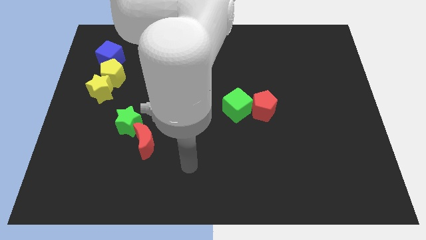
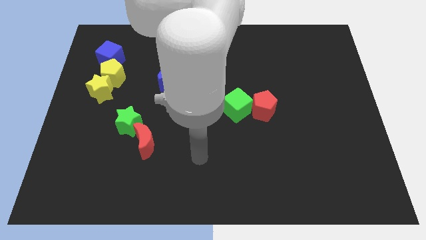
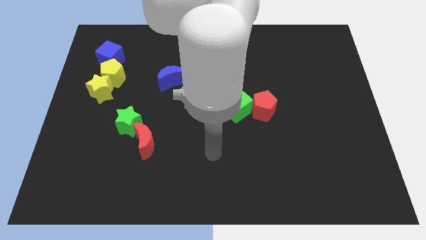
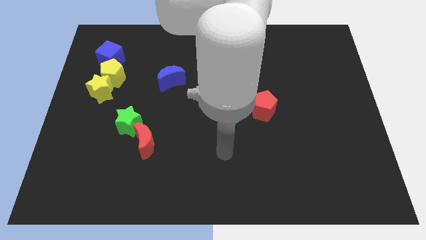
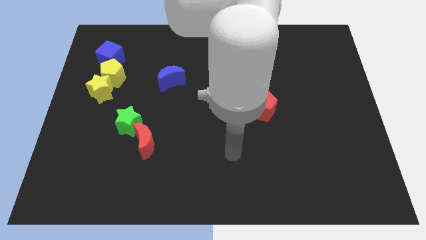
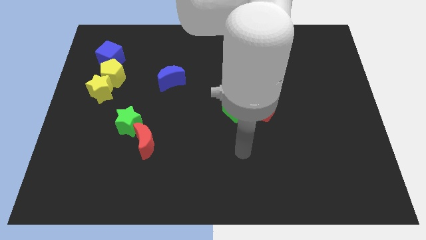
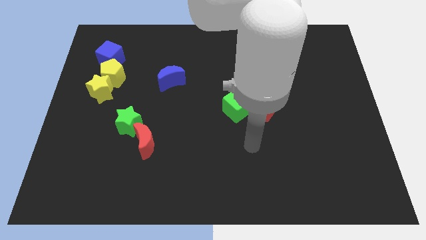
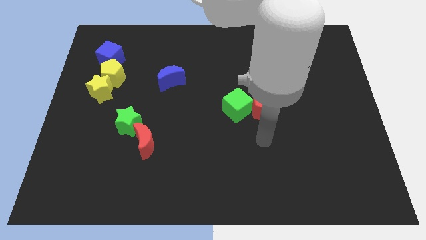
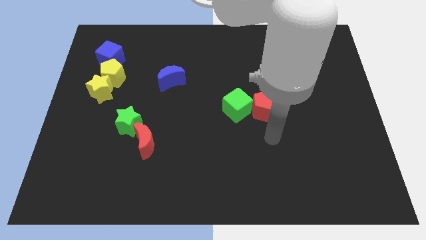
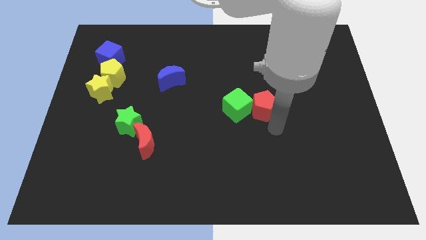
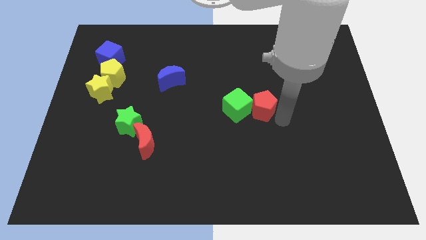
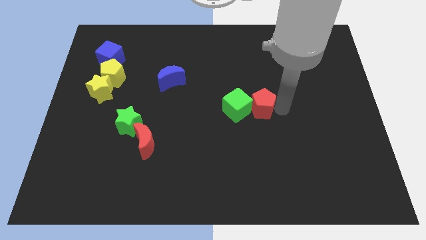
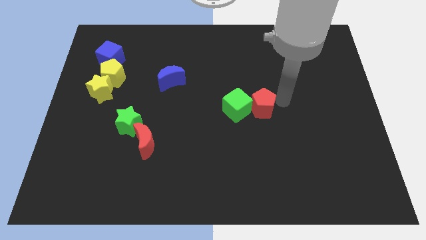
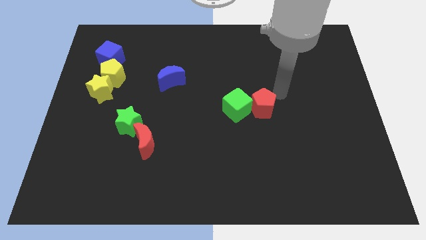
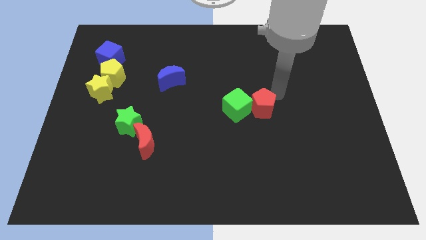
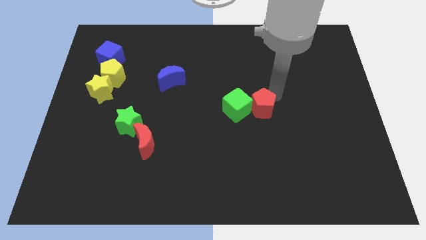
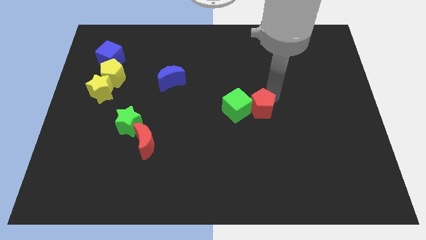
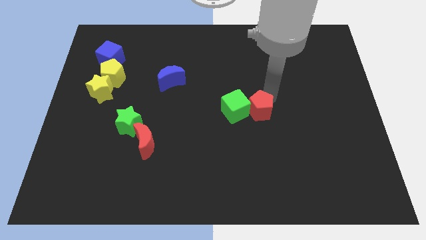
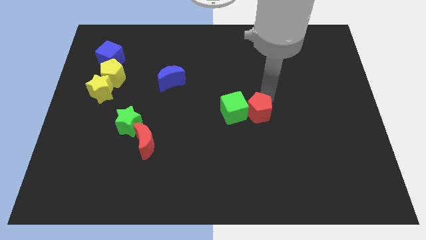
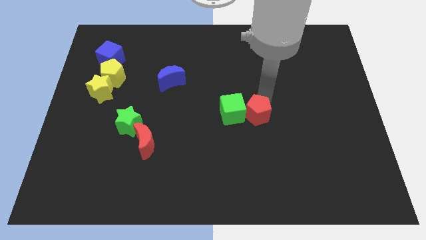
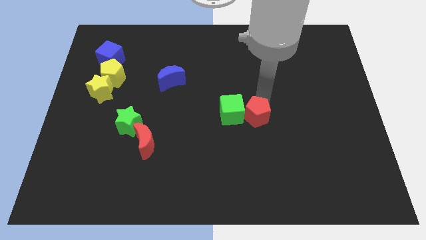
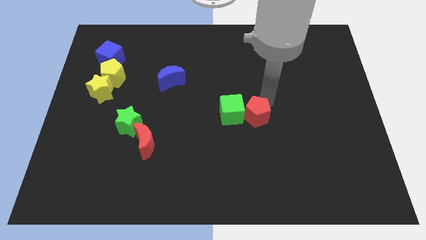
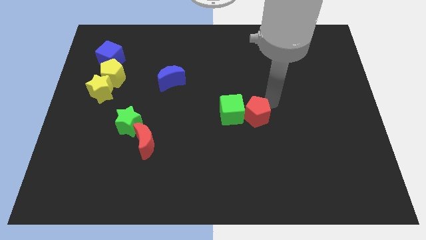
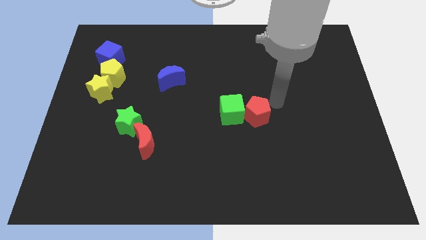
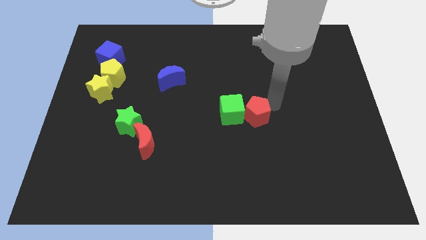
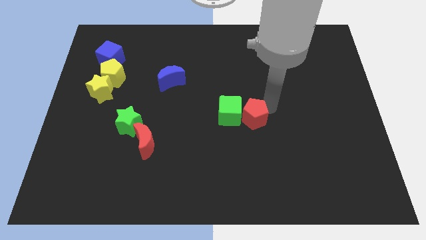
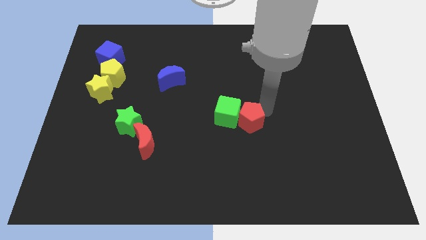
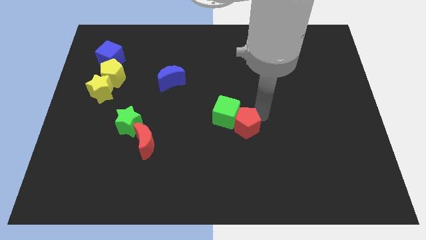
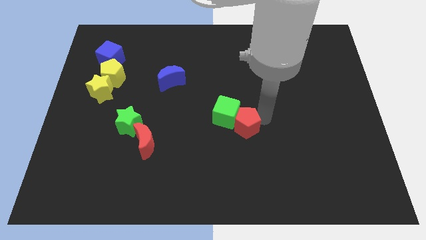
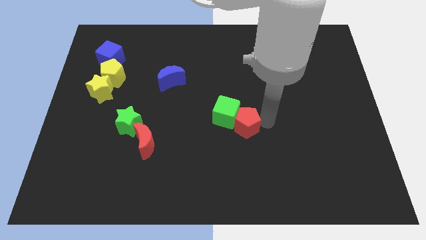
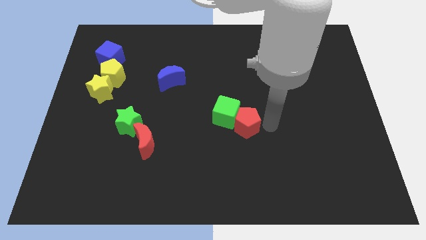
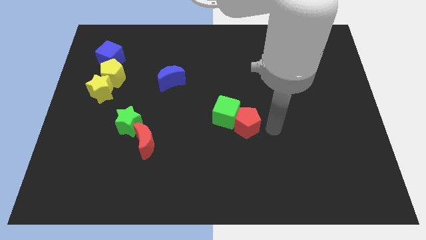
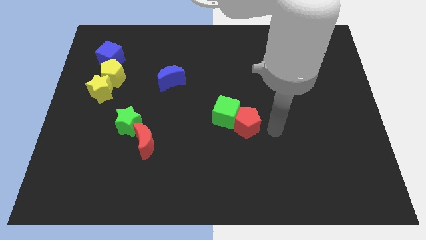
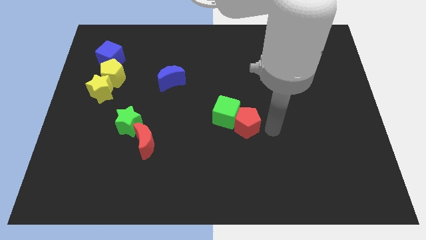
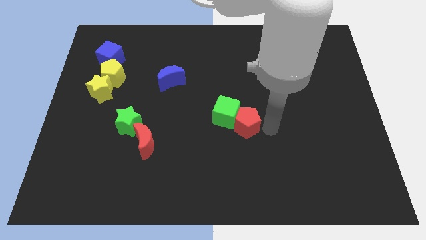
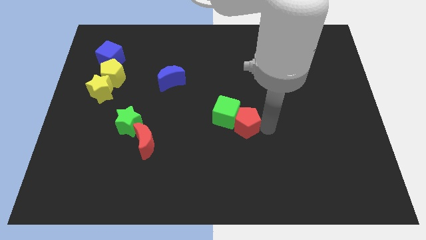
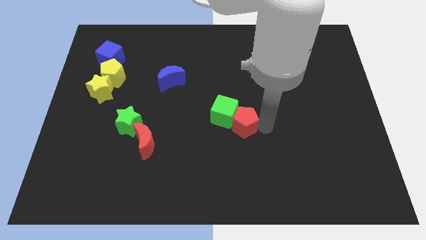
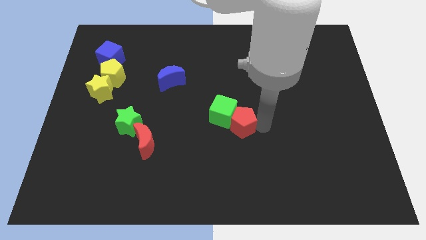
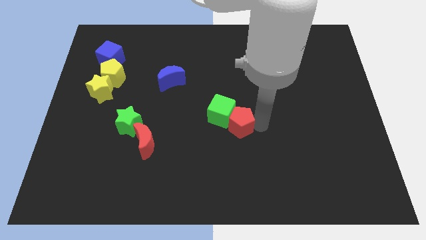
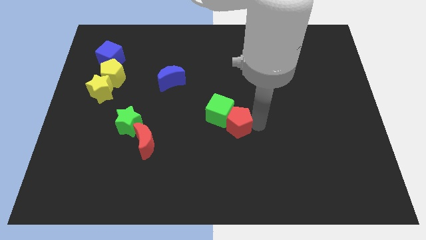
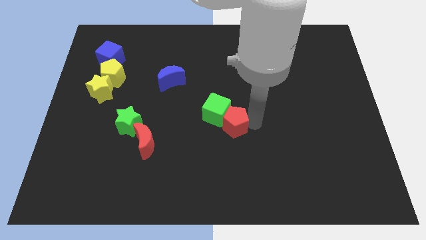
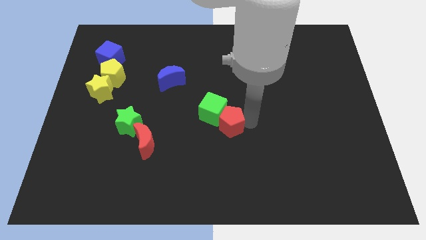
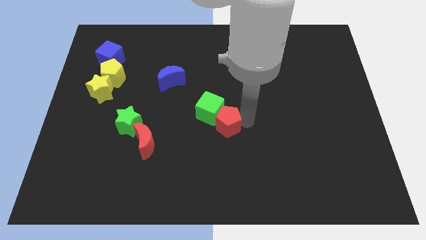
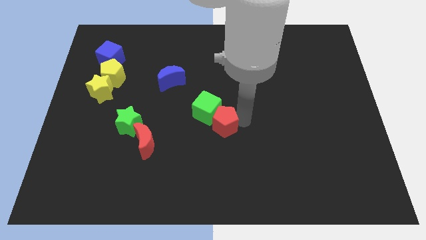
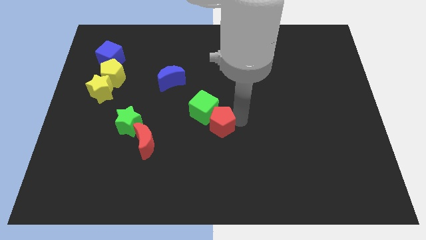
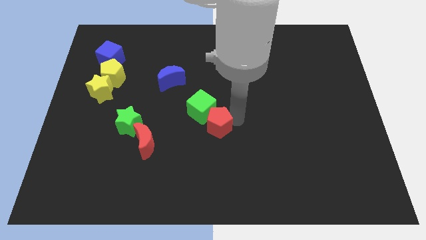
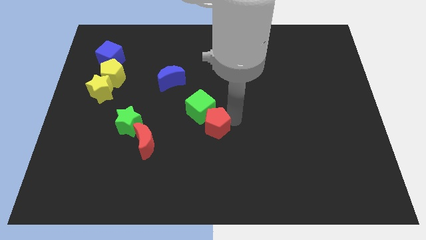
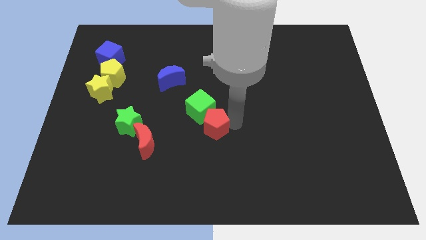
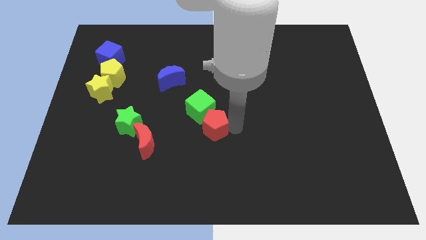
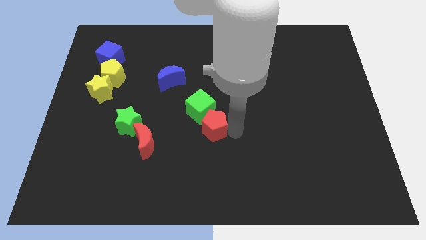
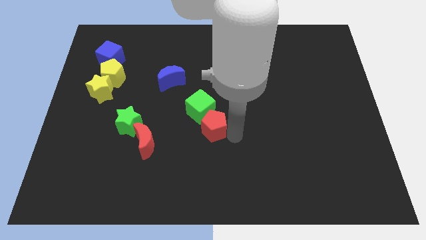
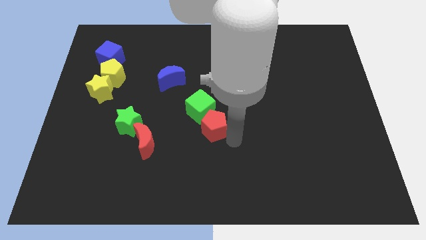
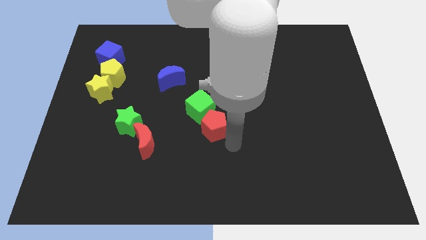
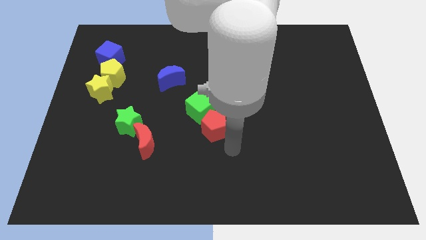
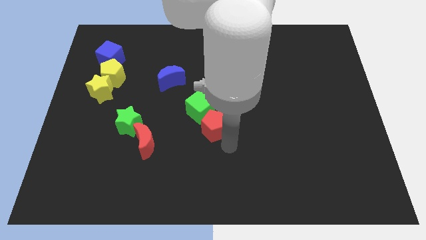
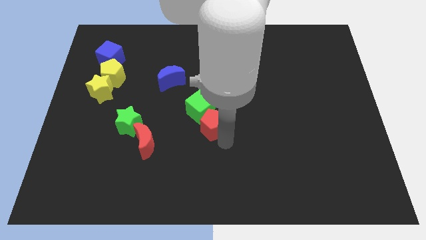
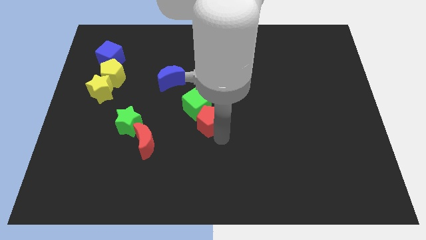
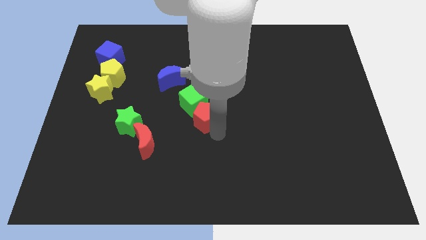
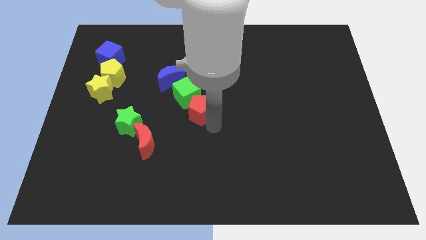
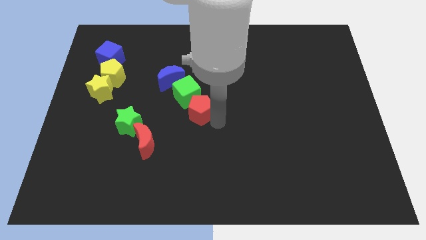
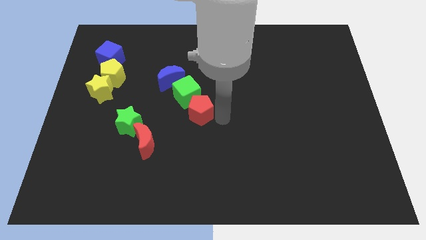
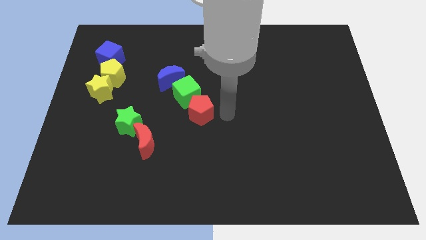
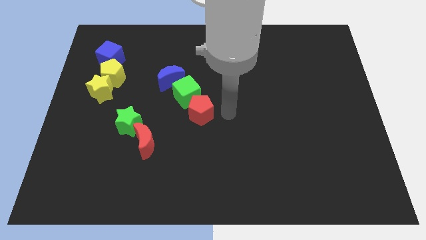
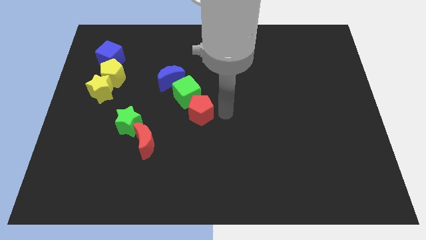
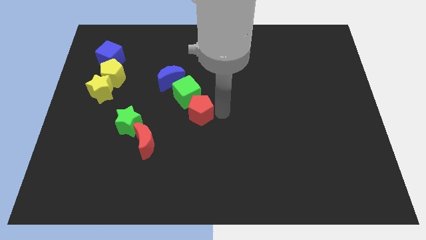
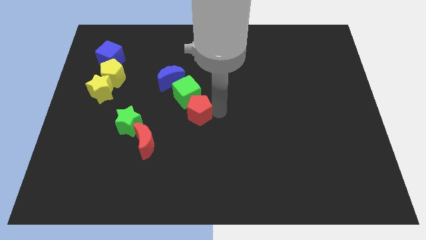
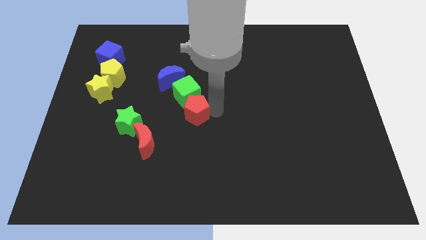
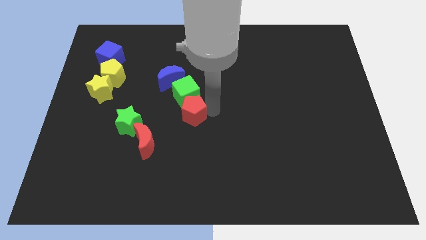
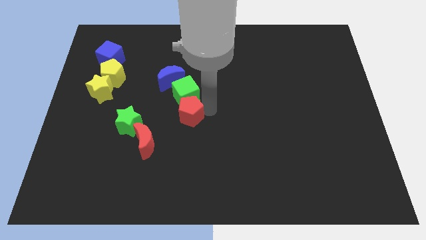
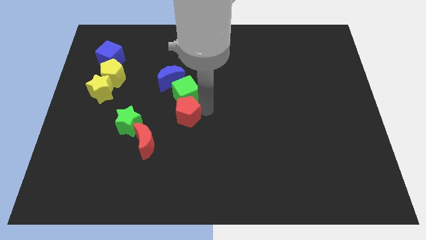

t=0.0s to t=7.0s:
push the red pentagon to the bottom side of the blue moon
